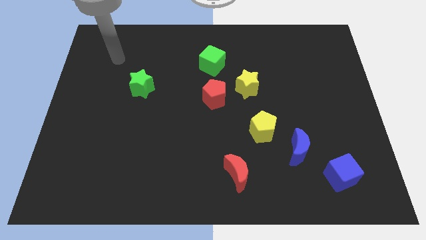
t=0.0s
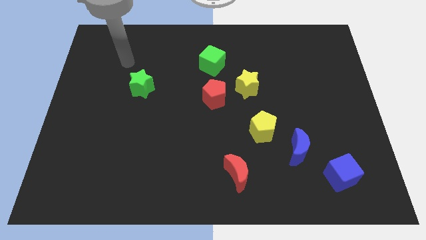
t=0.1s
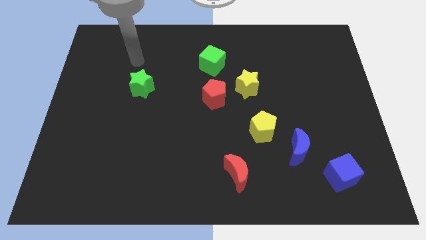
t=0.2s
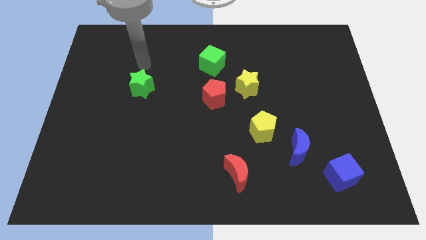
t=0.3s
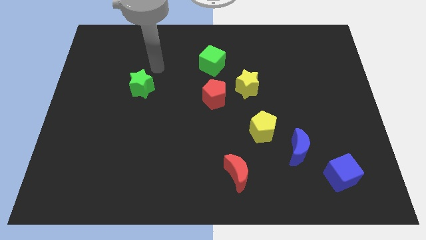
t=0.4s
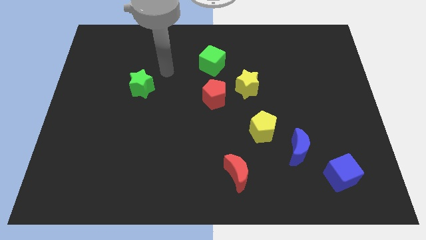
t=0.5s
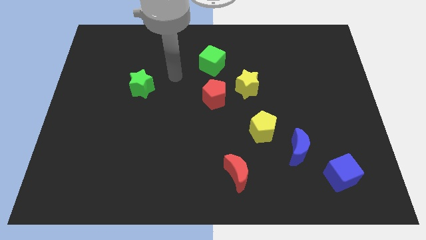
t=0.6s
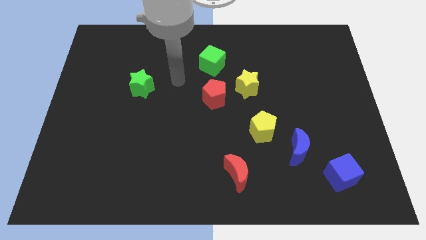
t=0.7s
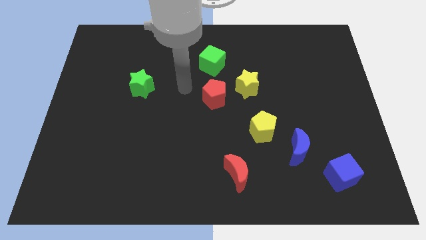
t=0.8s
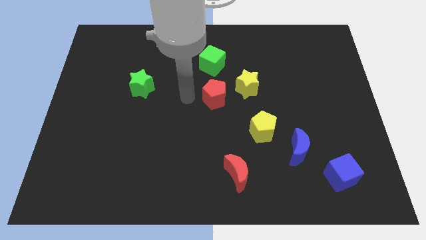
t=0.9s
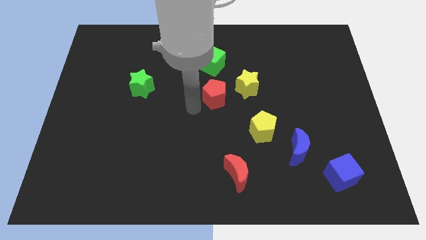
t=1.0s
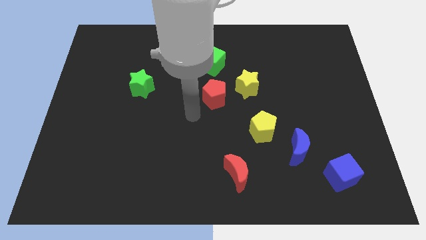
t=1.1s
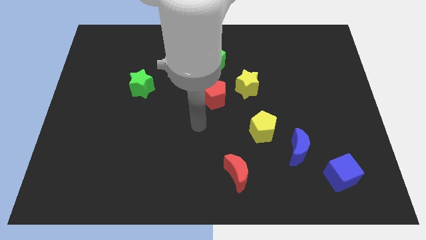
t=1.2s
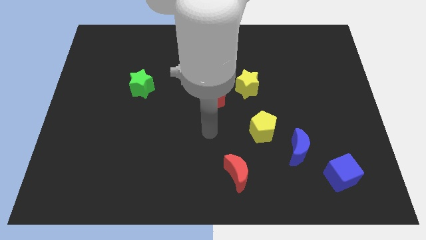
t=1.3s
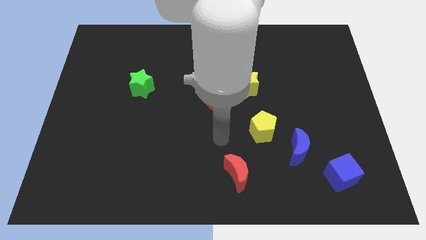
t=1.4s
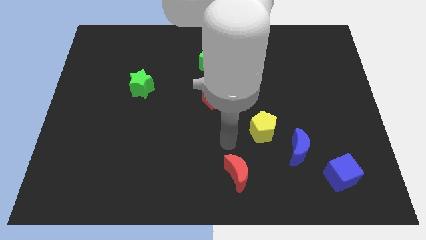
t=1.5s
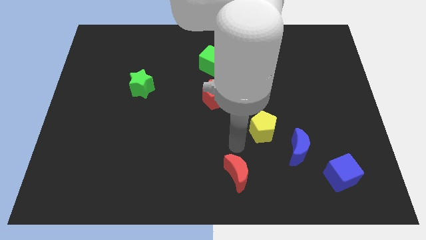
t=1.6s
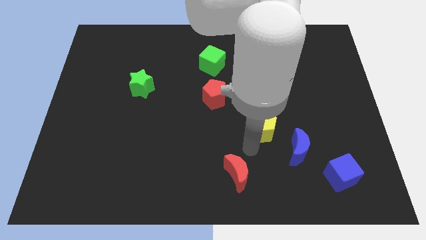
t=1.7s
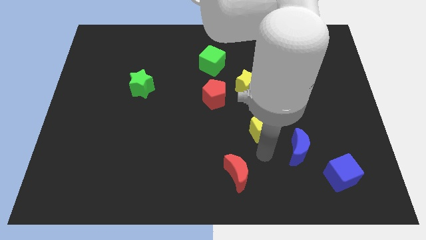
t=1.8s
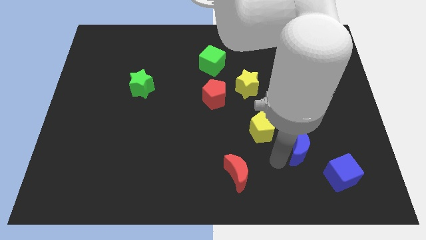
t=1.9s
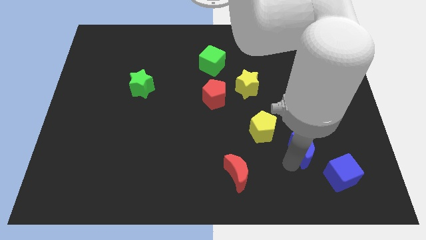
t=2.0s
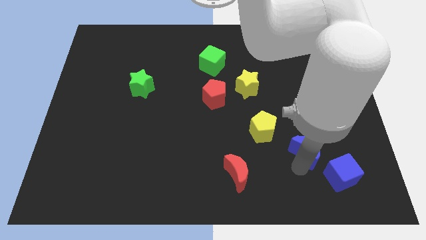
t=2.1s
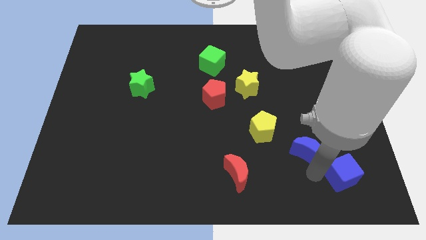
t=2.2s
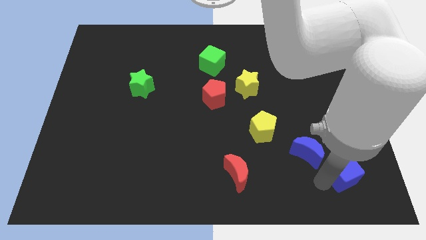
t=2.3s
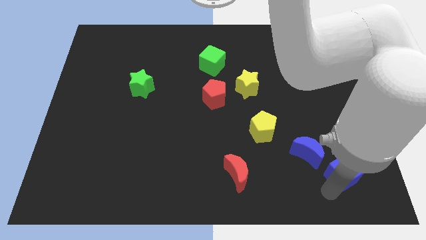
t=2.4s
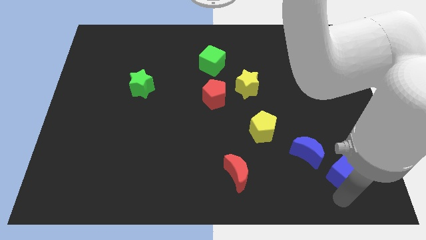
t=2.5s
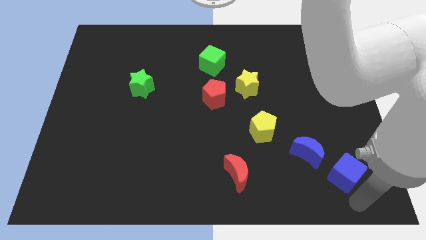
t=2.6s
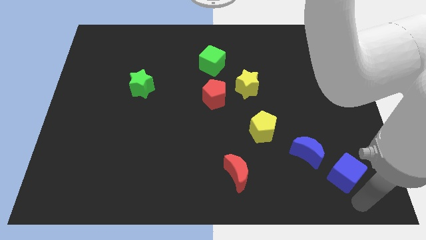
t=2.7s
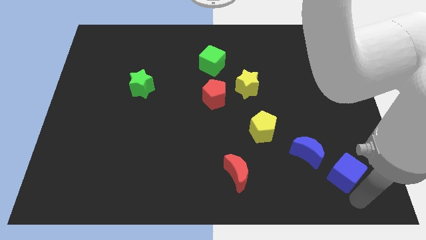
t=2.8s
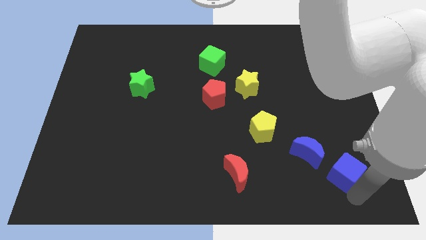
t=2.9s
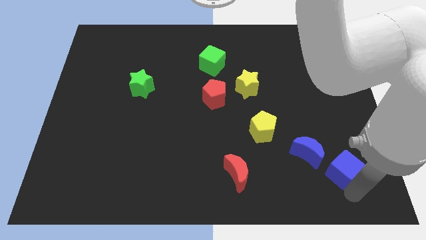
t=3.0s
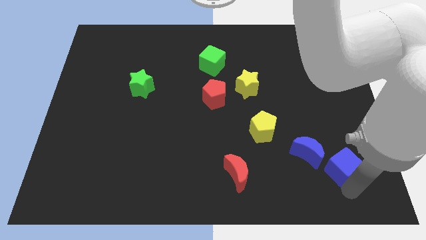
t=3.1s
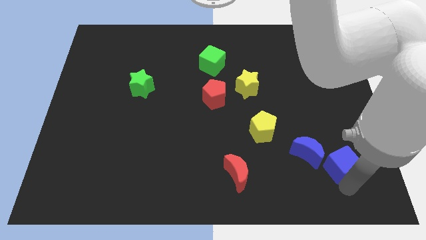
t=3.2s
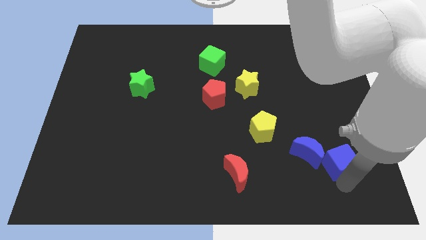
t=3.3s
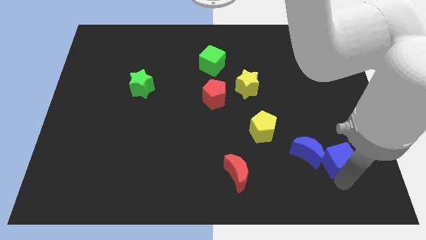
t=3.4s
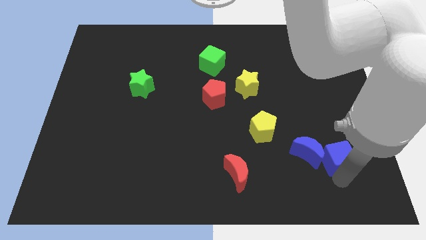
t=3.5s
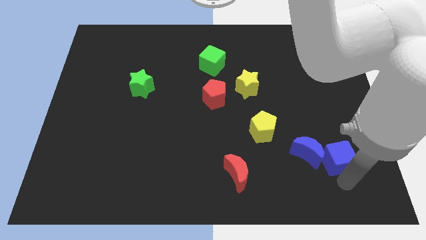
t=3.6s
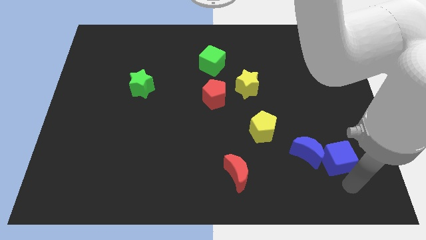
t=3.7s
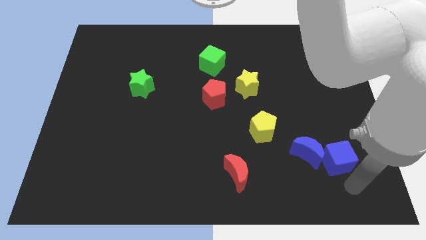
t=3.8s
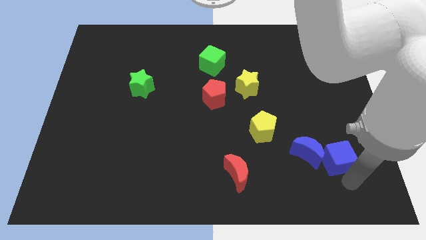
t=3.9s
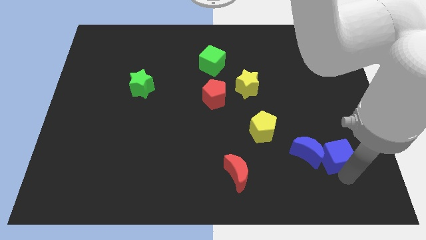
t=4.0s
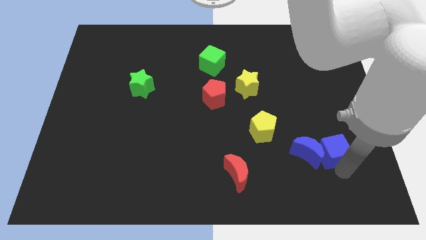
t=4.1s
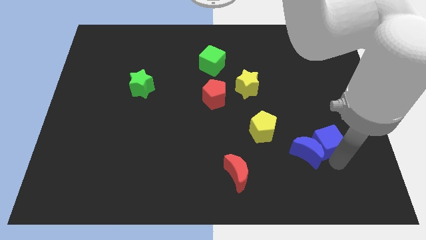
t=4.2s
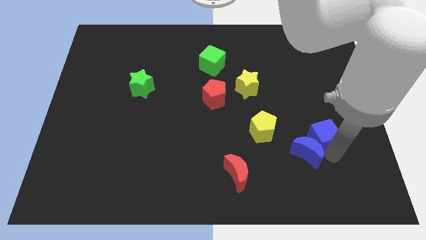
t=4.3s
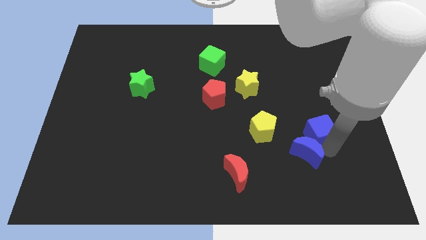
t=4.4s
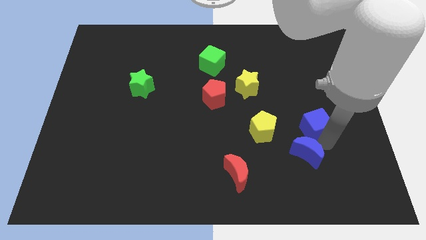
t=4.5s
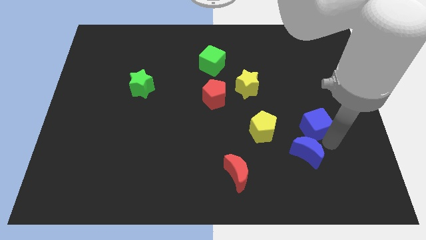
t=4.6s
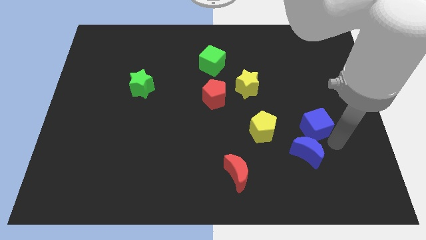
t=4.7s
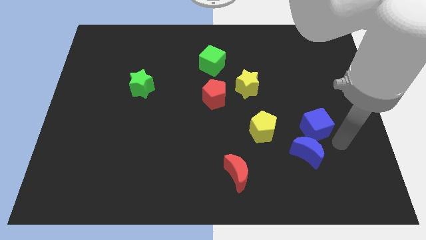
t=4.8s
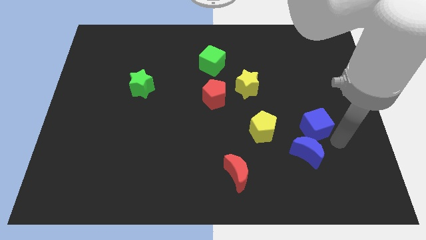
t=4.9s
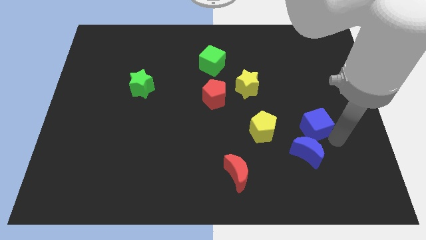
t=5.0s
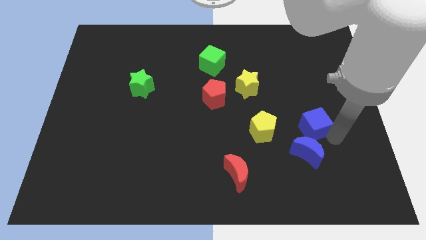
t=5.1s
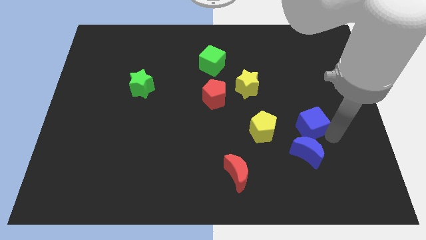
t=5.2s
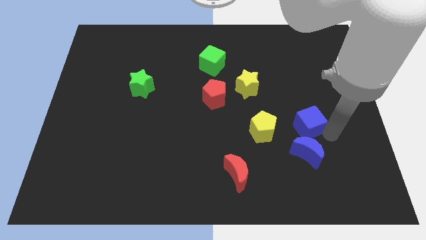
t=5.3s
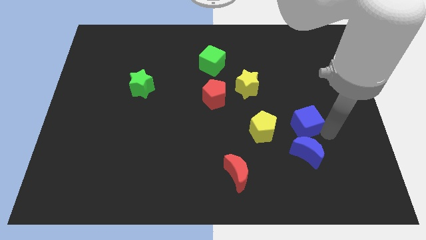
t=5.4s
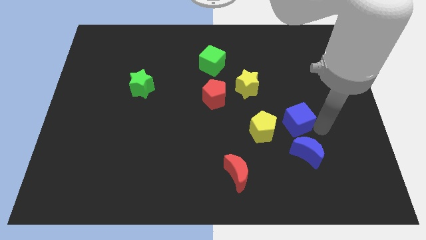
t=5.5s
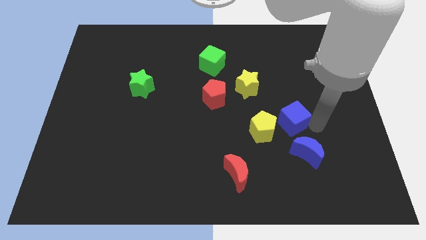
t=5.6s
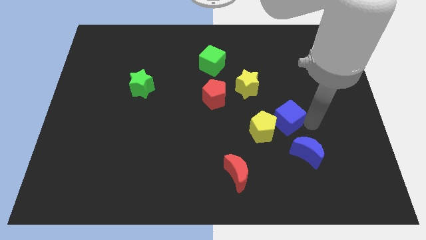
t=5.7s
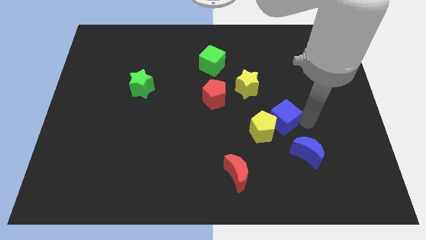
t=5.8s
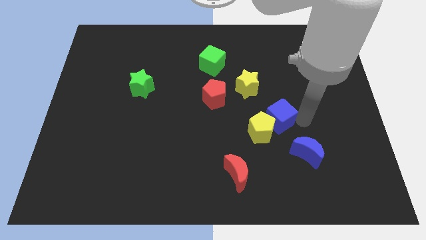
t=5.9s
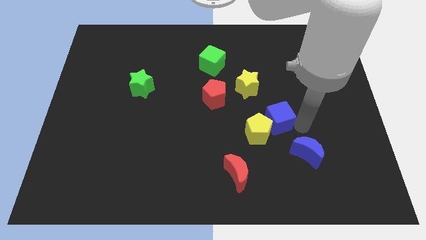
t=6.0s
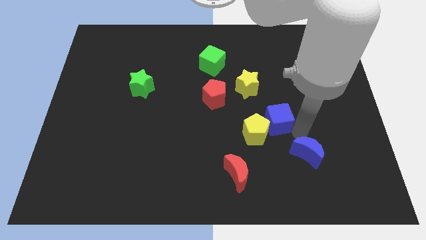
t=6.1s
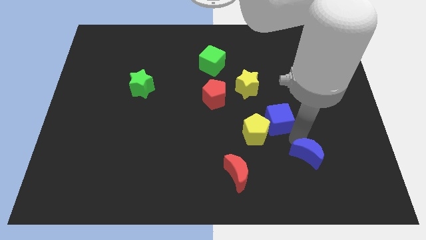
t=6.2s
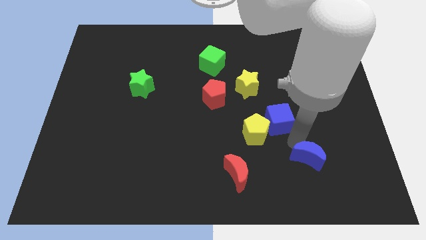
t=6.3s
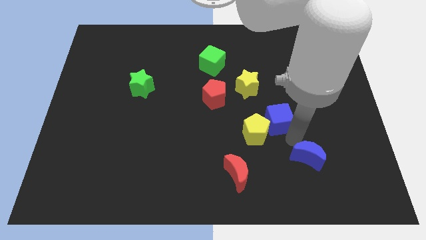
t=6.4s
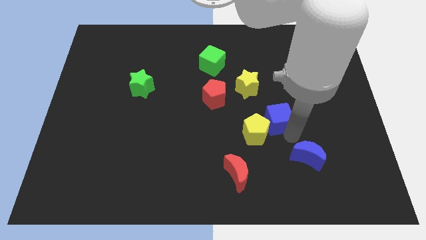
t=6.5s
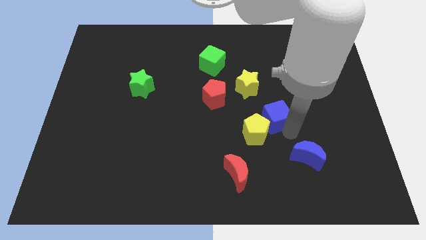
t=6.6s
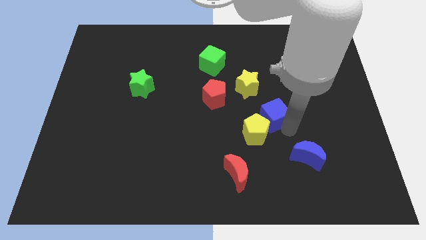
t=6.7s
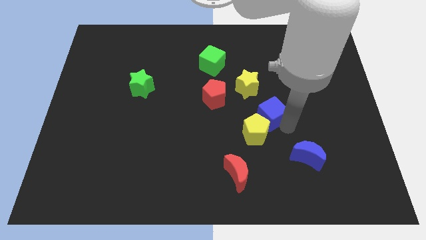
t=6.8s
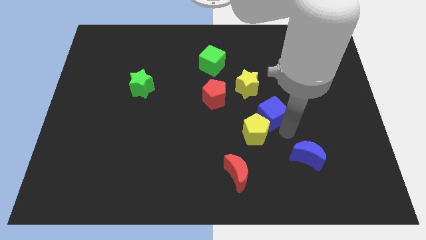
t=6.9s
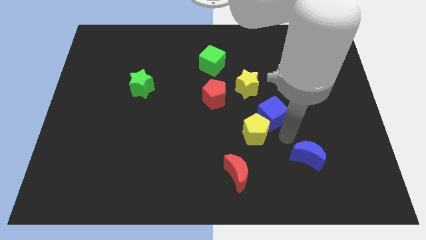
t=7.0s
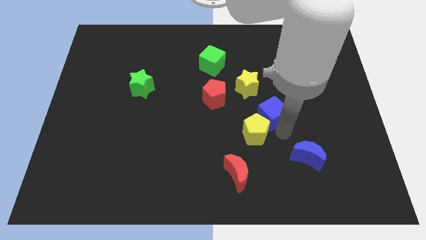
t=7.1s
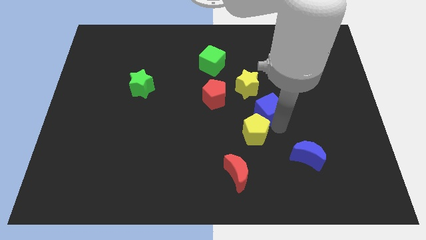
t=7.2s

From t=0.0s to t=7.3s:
move the blue cube to the right of the red pentagon
